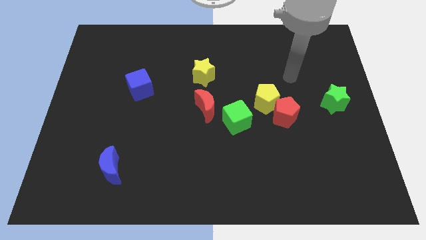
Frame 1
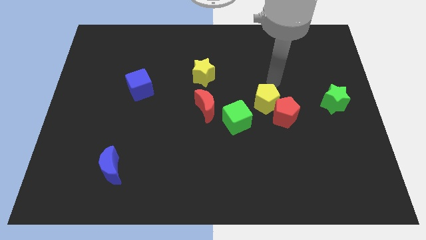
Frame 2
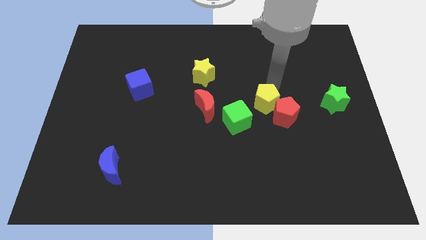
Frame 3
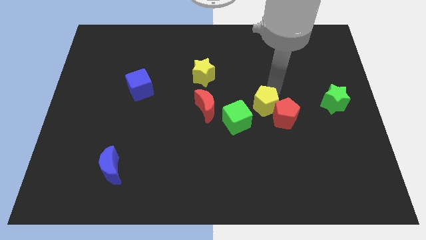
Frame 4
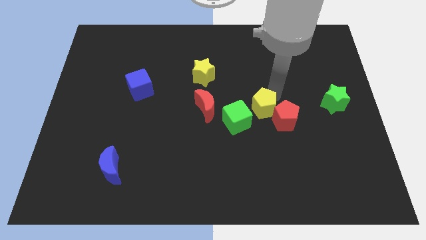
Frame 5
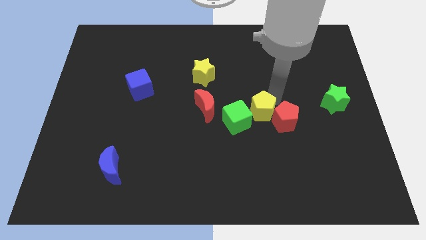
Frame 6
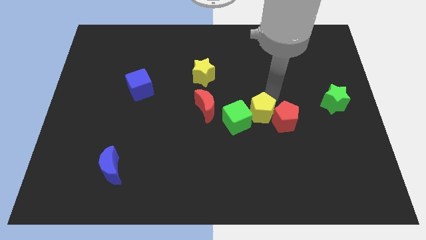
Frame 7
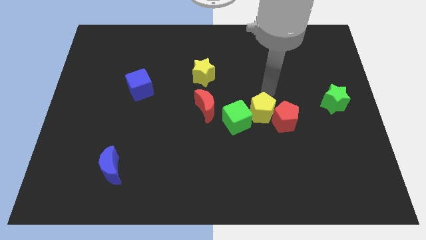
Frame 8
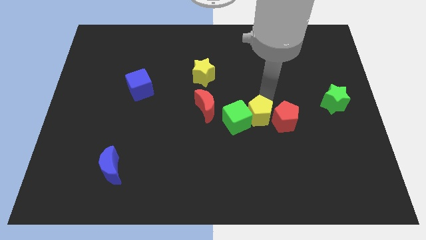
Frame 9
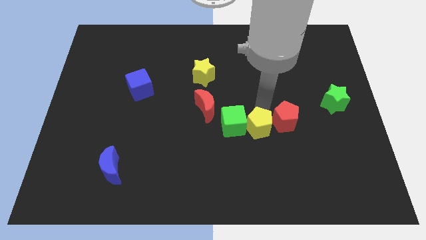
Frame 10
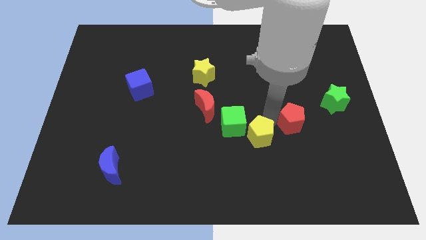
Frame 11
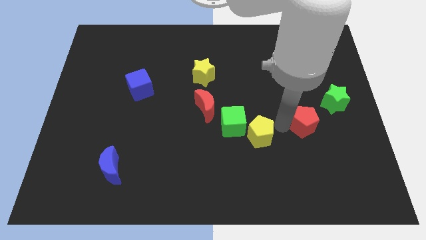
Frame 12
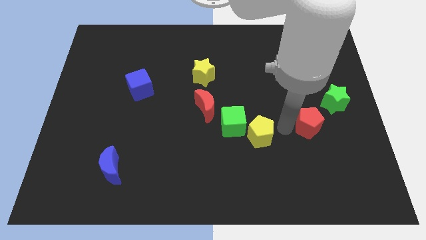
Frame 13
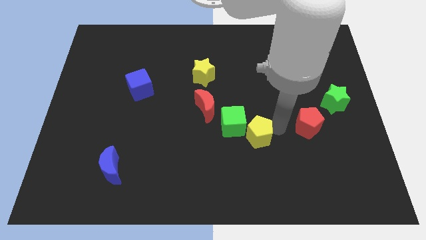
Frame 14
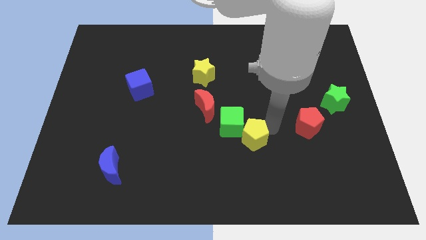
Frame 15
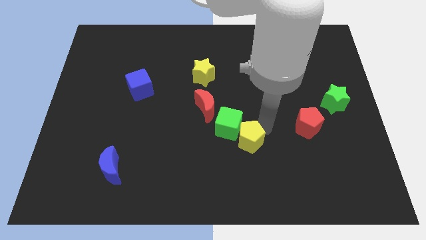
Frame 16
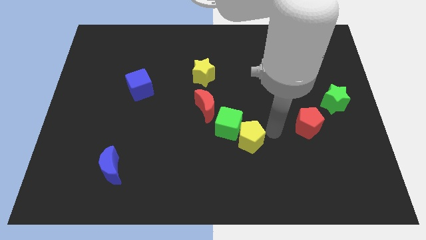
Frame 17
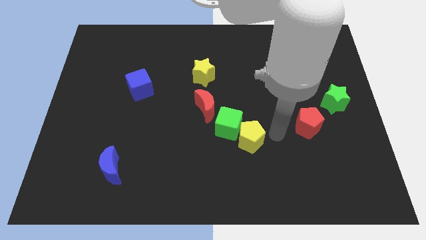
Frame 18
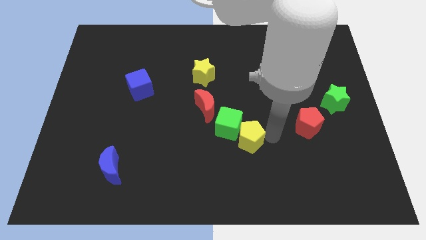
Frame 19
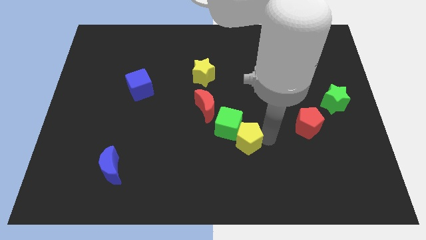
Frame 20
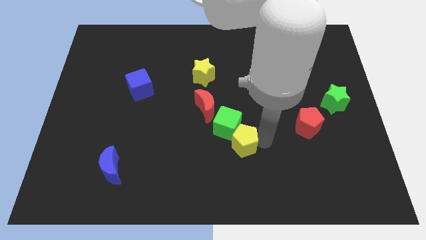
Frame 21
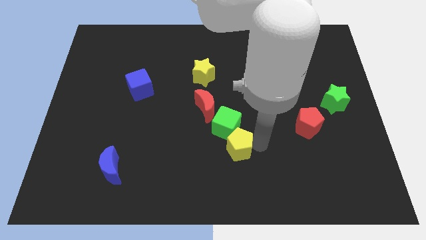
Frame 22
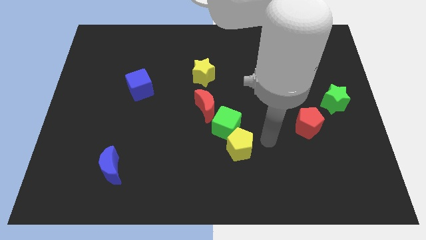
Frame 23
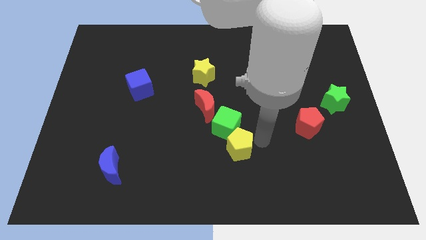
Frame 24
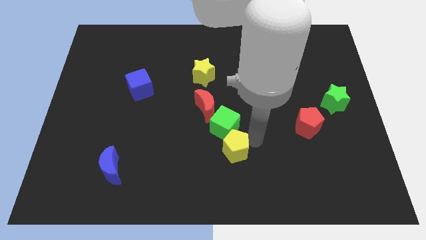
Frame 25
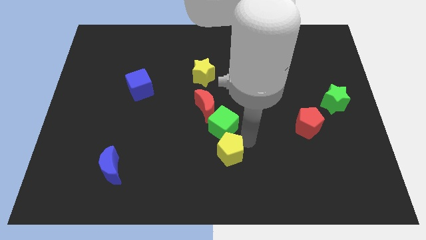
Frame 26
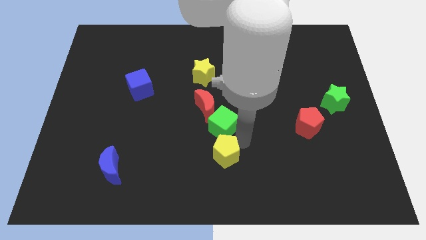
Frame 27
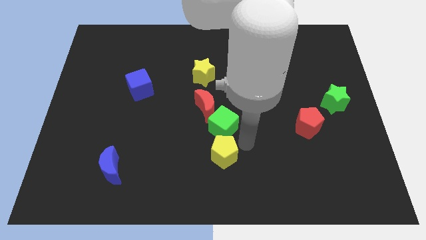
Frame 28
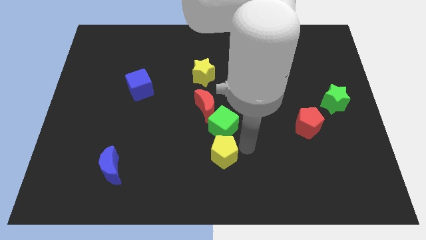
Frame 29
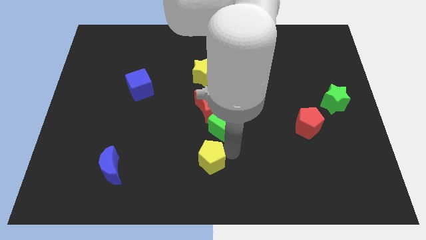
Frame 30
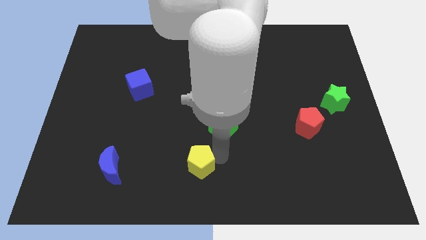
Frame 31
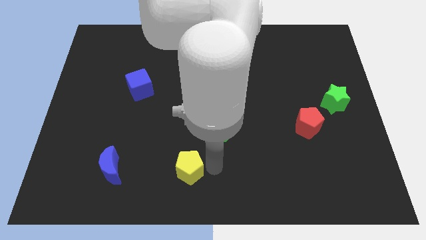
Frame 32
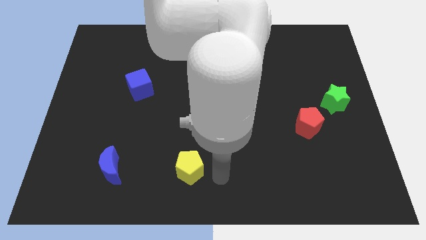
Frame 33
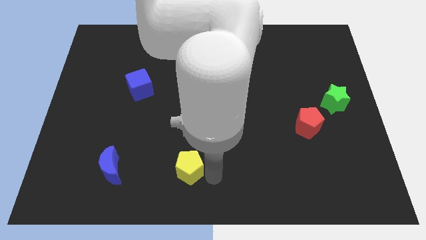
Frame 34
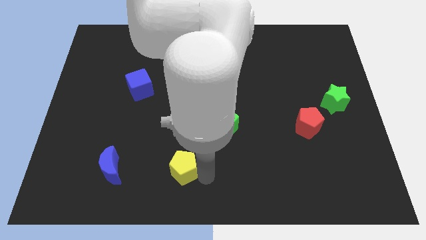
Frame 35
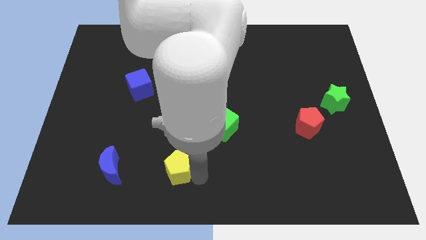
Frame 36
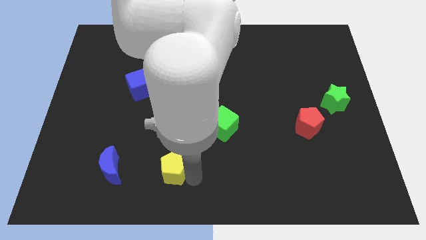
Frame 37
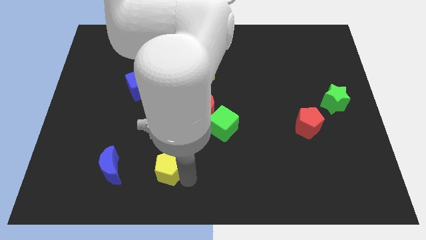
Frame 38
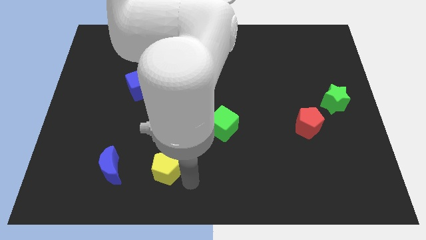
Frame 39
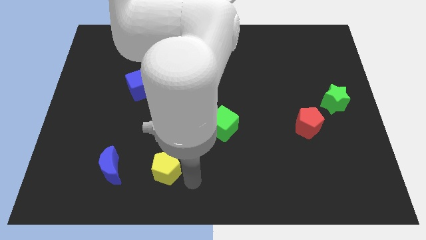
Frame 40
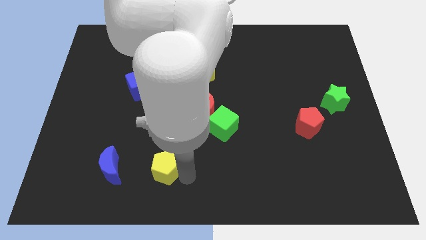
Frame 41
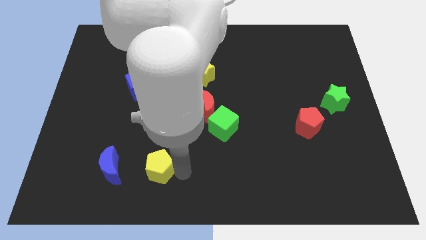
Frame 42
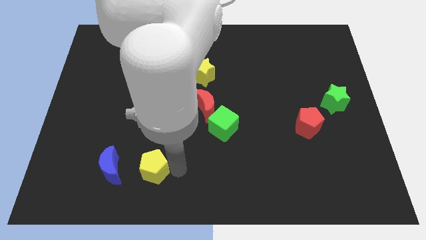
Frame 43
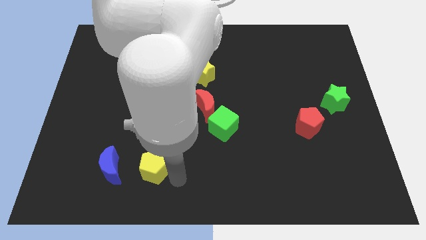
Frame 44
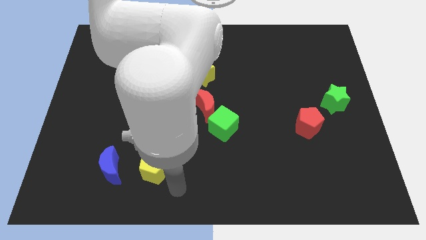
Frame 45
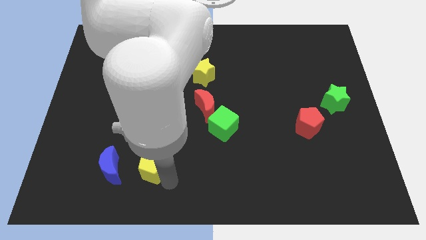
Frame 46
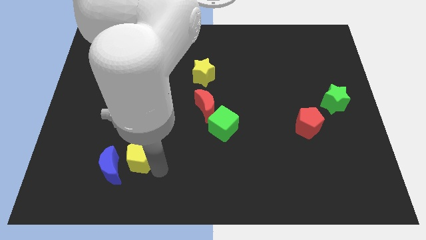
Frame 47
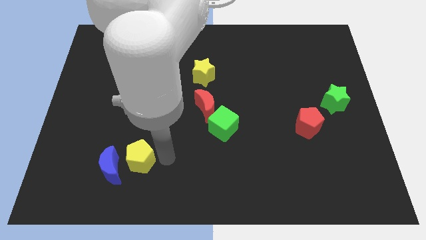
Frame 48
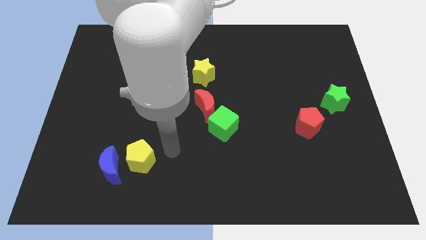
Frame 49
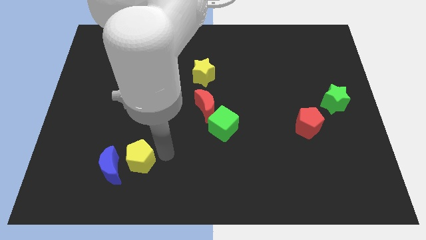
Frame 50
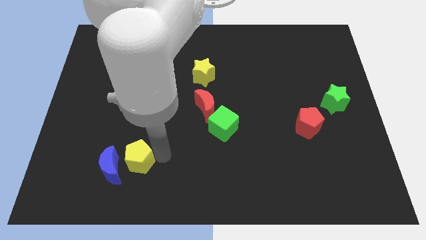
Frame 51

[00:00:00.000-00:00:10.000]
put the yellow pentagon to the blue moon

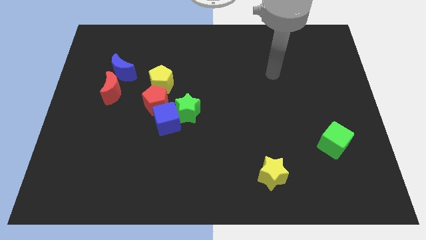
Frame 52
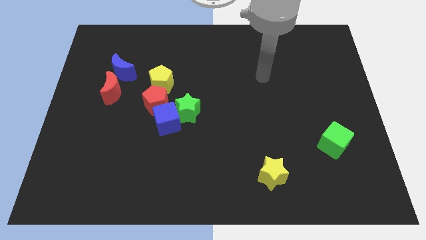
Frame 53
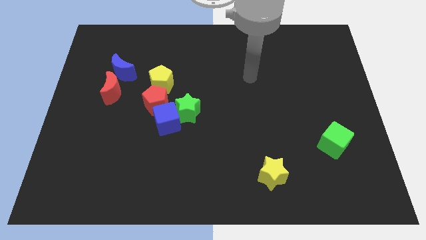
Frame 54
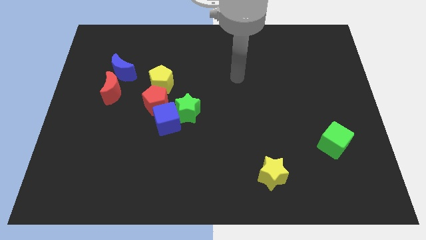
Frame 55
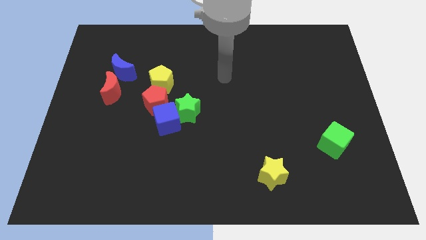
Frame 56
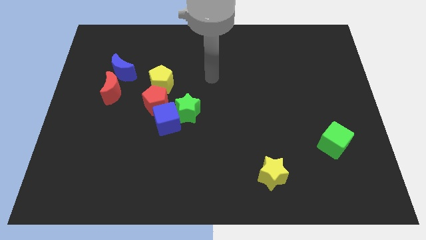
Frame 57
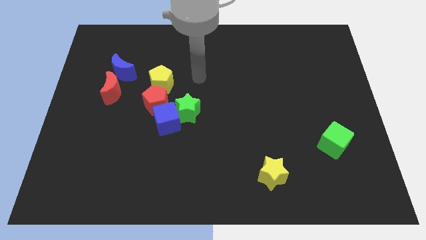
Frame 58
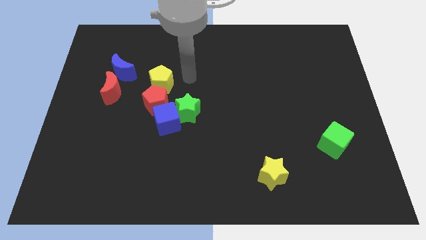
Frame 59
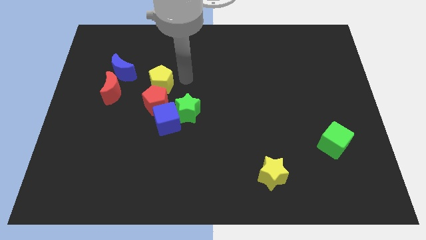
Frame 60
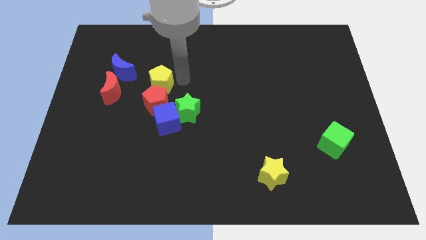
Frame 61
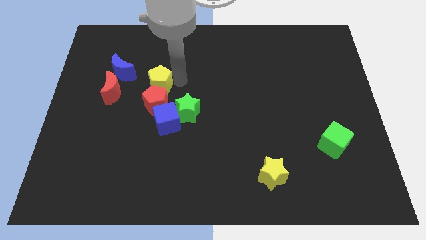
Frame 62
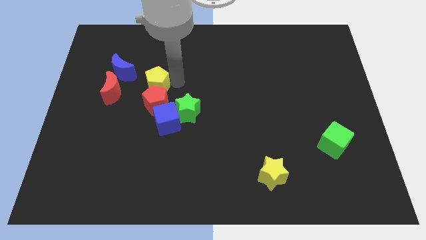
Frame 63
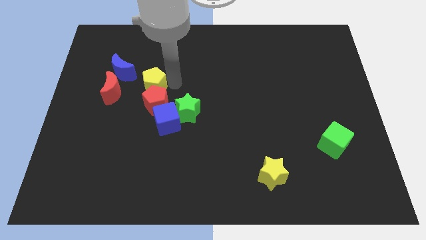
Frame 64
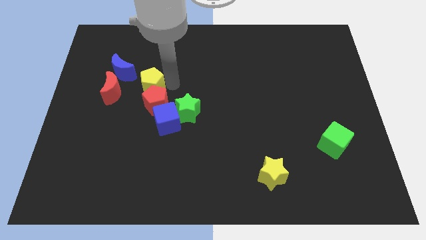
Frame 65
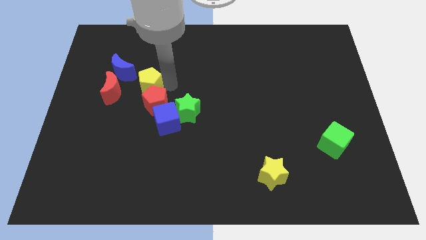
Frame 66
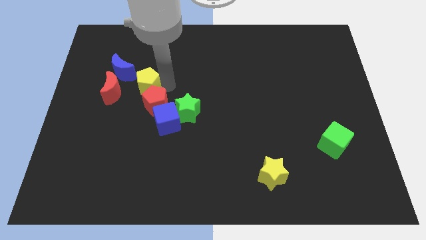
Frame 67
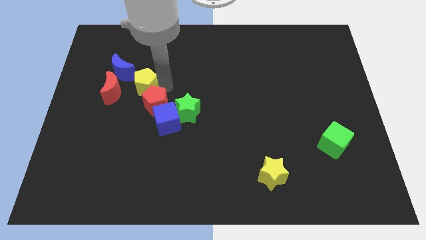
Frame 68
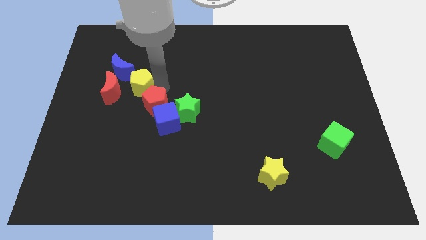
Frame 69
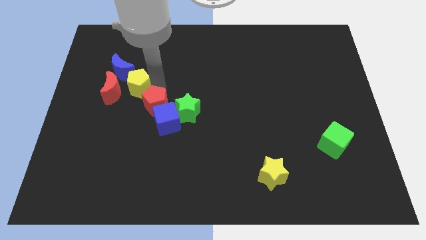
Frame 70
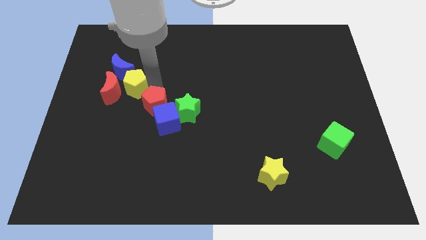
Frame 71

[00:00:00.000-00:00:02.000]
push the yellow pentagon next to the red moon

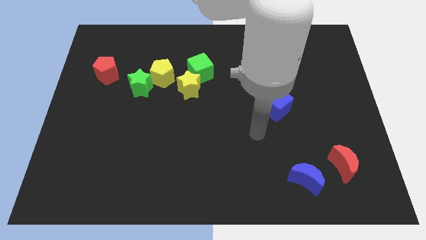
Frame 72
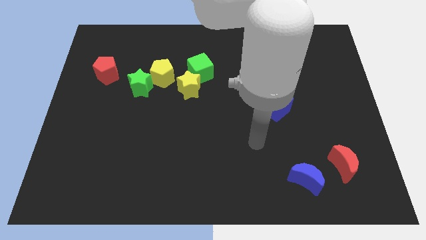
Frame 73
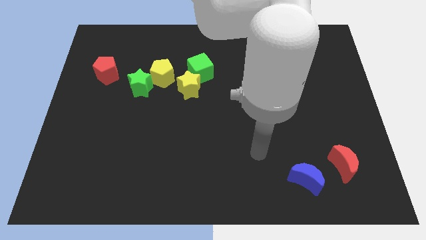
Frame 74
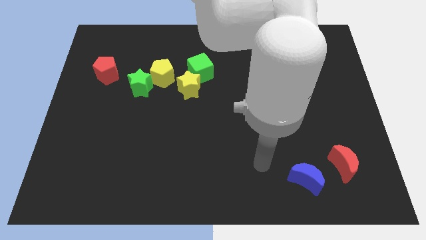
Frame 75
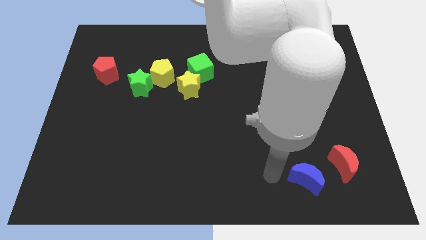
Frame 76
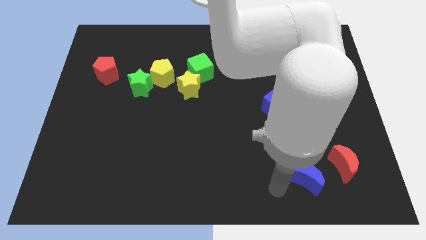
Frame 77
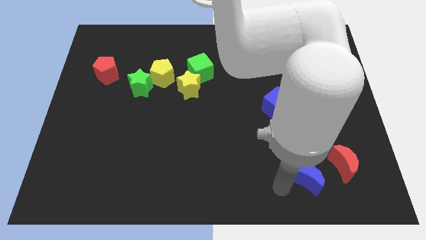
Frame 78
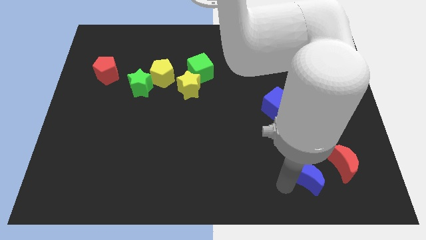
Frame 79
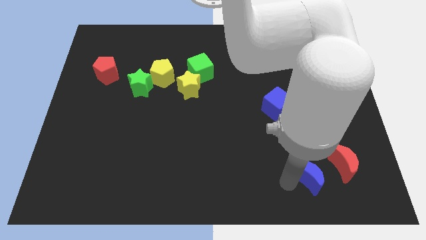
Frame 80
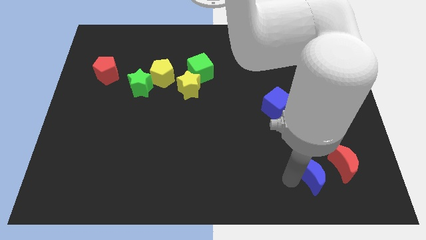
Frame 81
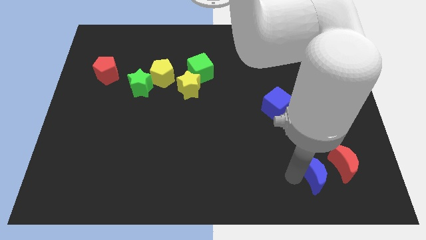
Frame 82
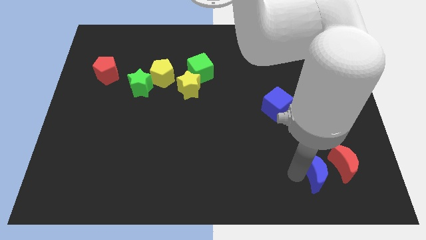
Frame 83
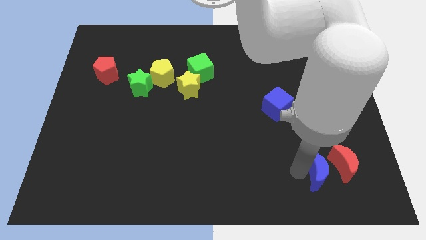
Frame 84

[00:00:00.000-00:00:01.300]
push the blue moon next to the red moon
